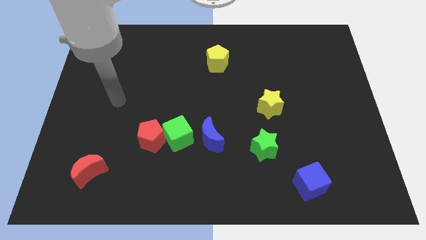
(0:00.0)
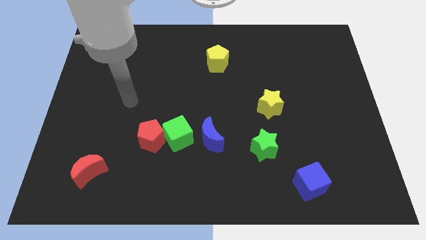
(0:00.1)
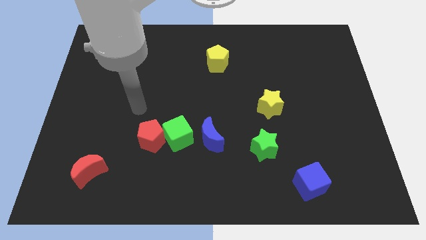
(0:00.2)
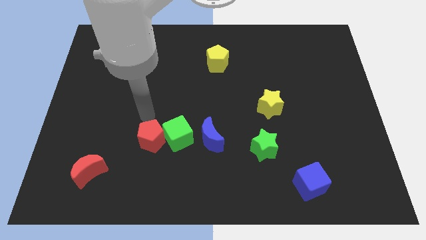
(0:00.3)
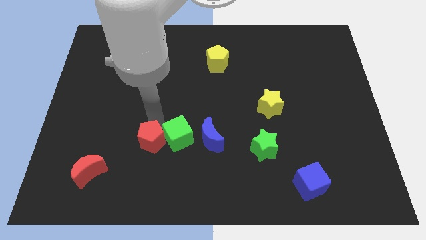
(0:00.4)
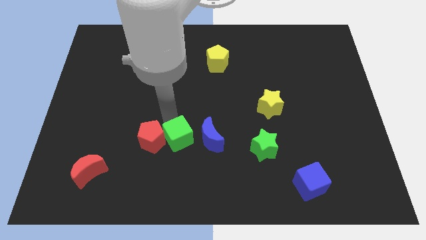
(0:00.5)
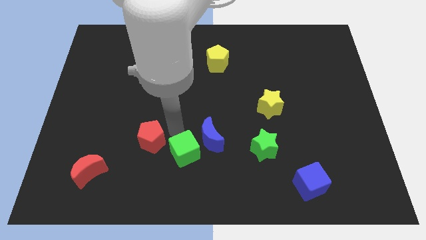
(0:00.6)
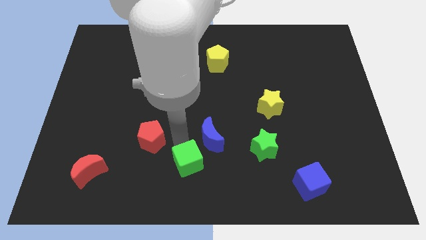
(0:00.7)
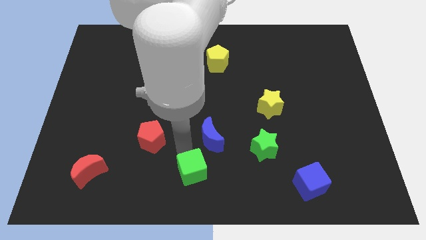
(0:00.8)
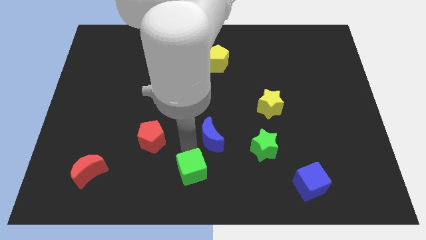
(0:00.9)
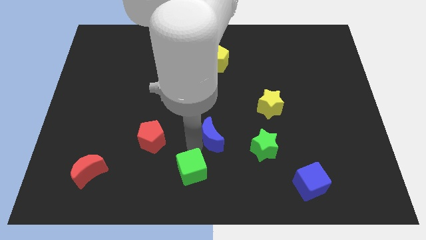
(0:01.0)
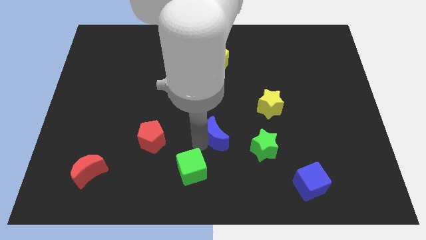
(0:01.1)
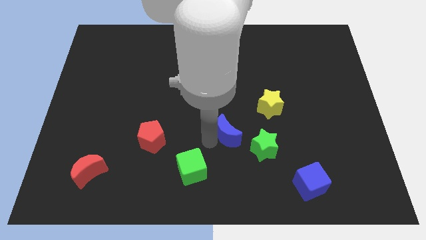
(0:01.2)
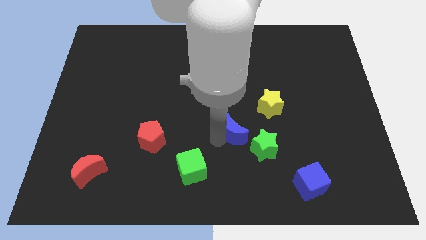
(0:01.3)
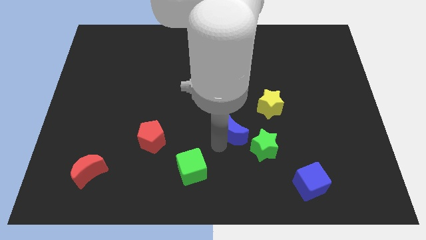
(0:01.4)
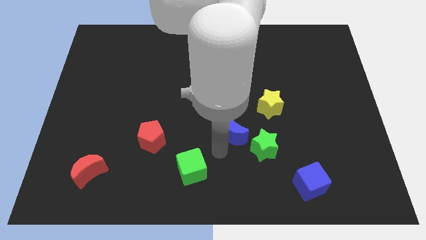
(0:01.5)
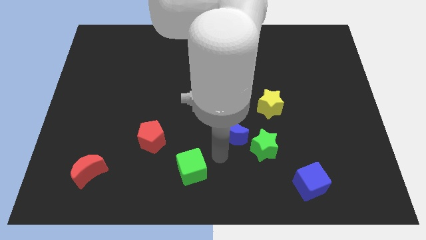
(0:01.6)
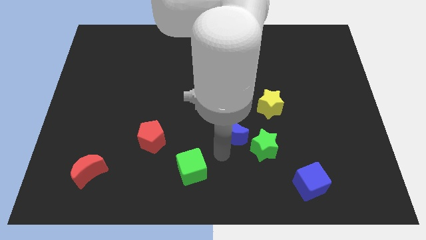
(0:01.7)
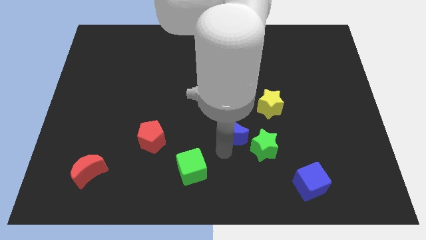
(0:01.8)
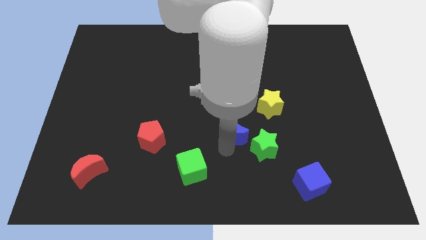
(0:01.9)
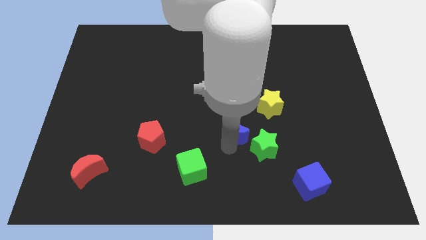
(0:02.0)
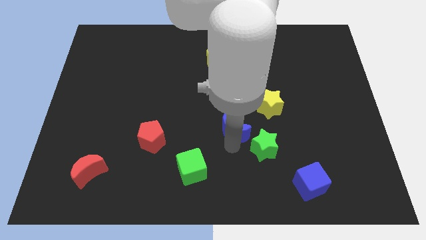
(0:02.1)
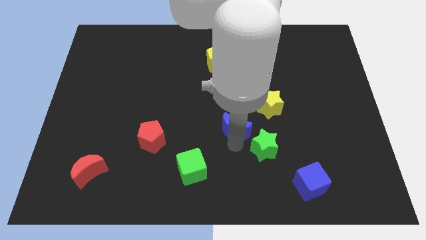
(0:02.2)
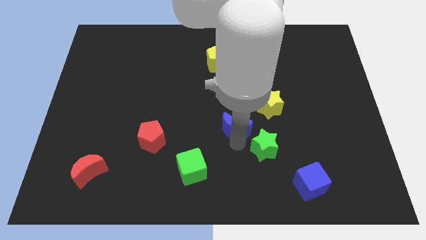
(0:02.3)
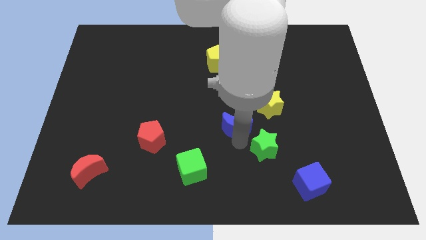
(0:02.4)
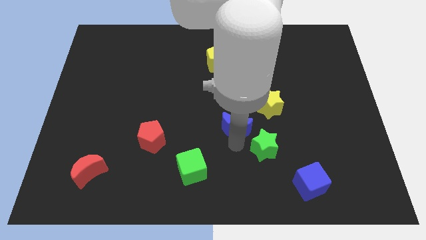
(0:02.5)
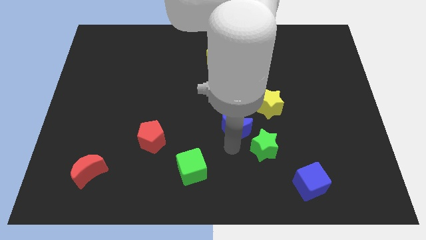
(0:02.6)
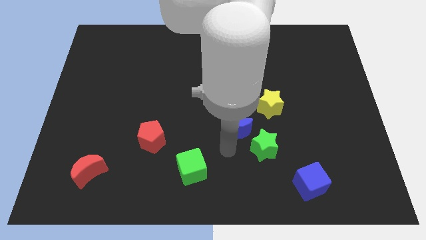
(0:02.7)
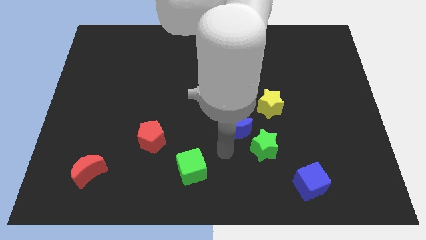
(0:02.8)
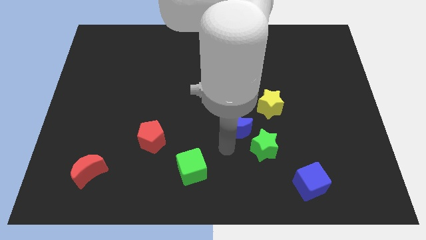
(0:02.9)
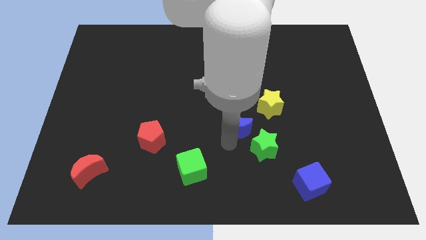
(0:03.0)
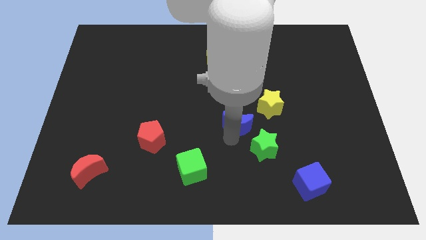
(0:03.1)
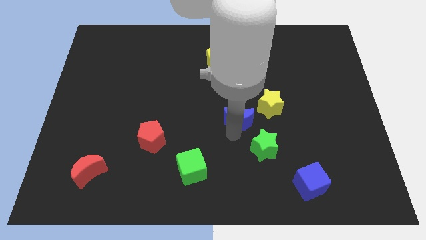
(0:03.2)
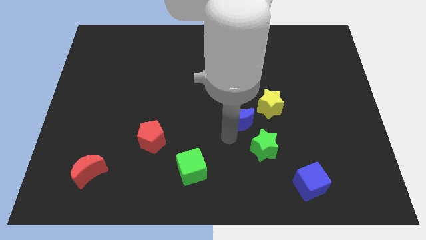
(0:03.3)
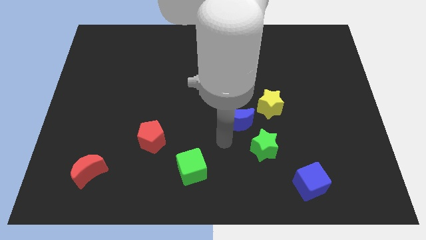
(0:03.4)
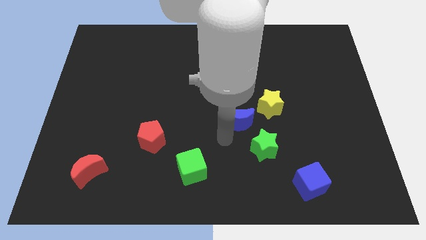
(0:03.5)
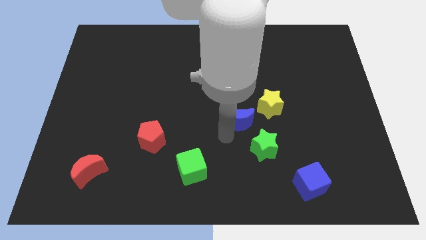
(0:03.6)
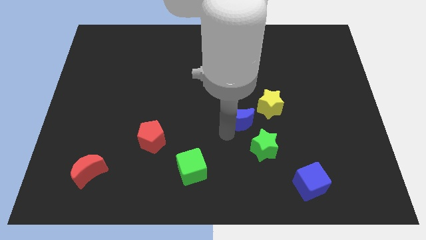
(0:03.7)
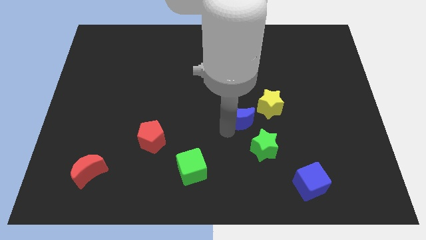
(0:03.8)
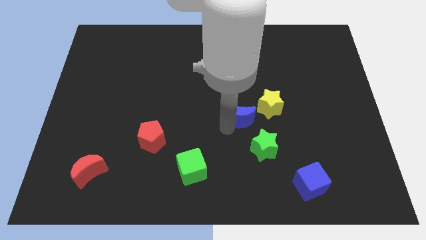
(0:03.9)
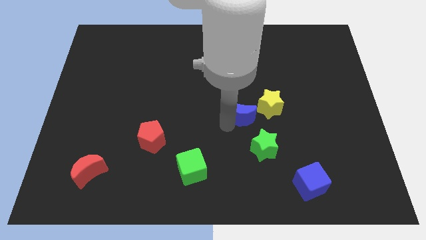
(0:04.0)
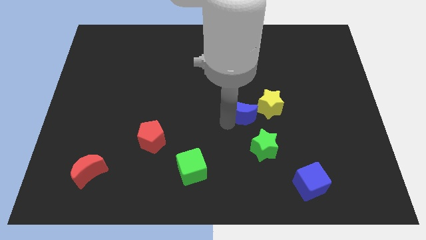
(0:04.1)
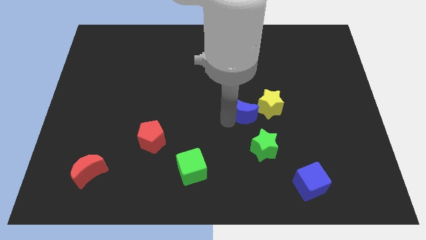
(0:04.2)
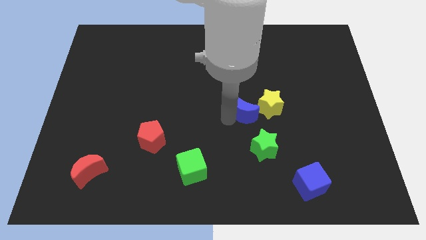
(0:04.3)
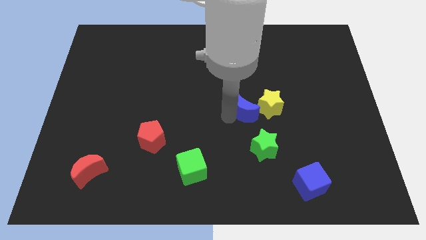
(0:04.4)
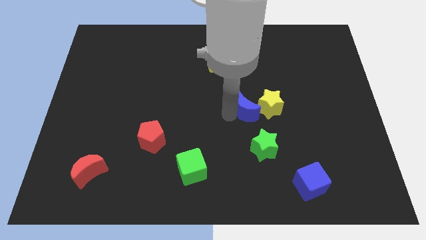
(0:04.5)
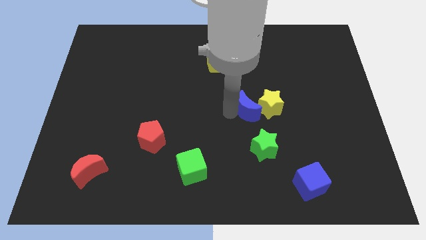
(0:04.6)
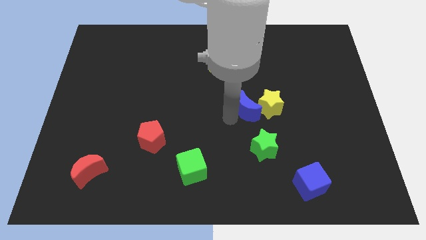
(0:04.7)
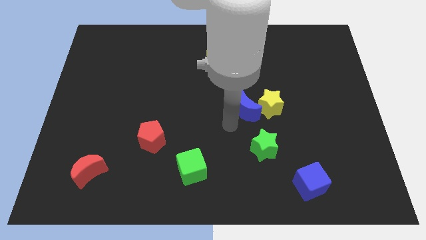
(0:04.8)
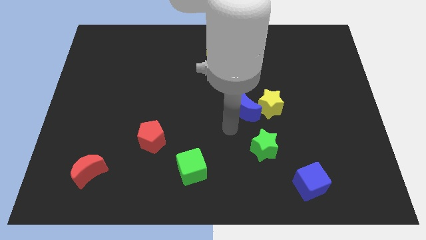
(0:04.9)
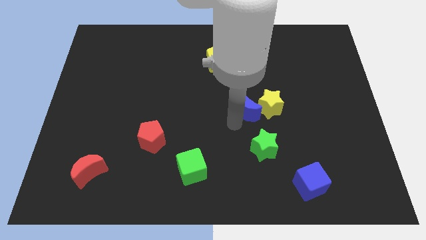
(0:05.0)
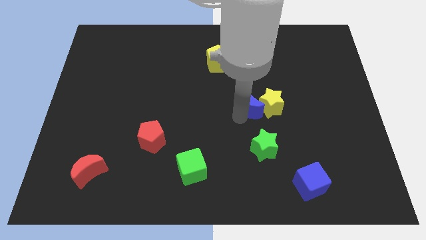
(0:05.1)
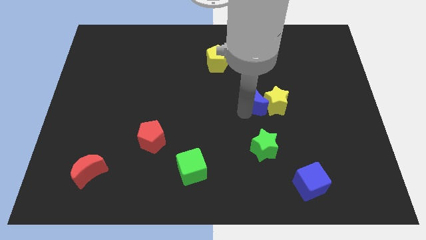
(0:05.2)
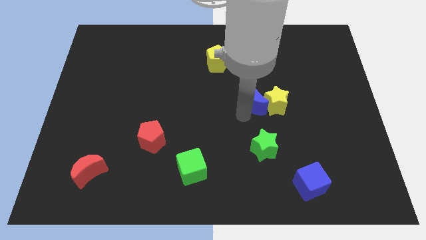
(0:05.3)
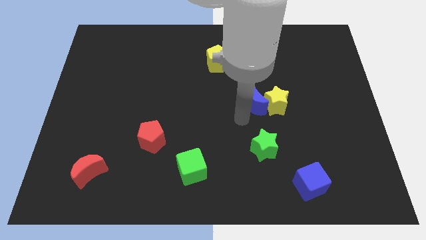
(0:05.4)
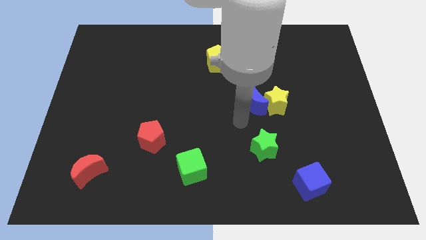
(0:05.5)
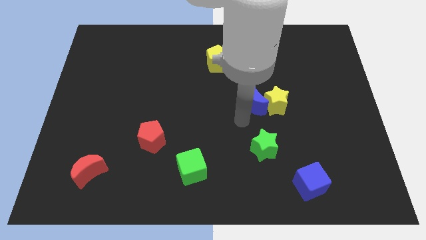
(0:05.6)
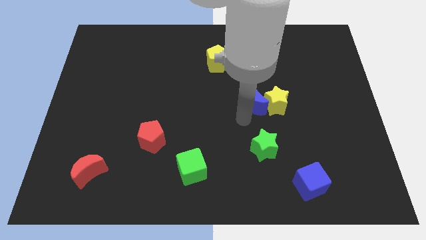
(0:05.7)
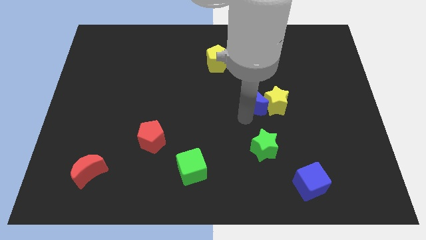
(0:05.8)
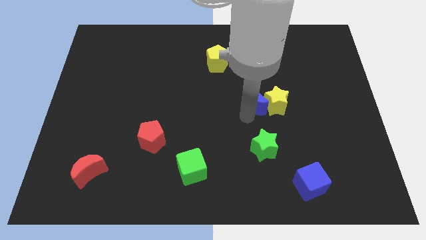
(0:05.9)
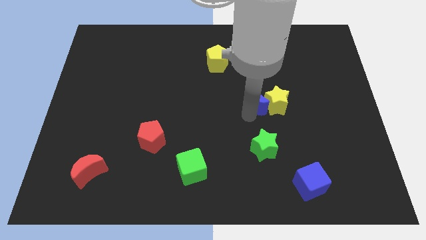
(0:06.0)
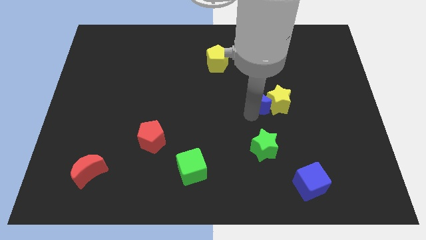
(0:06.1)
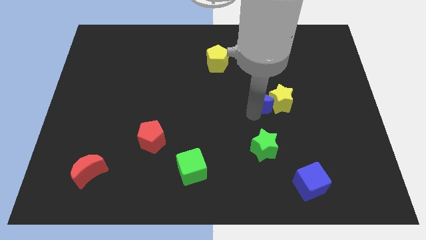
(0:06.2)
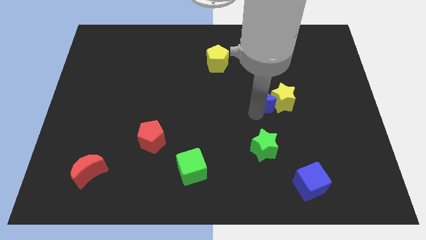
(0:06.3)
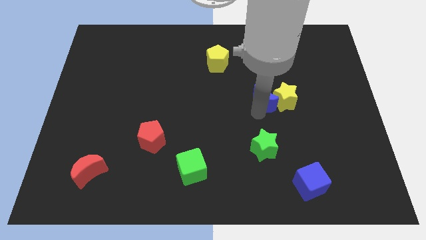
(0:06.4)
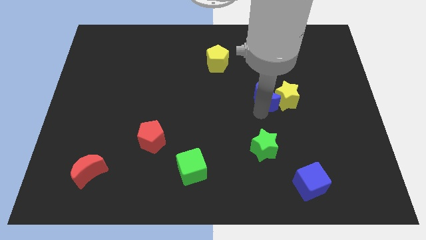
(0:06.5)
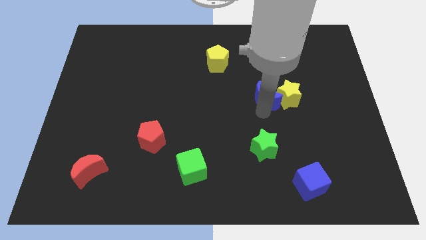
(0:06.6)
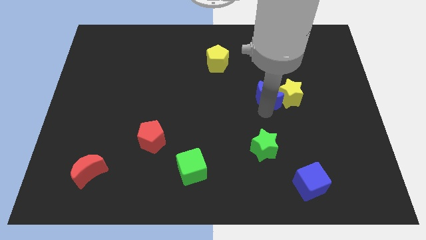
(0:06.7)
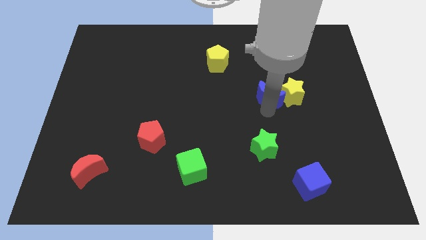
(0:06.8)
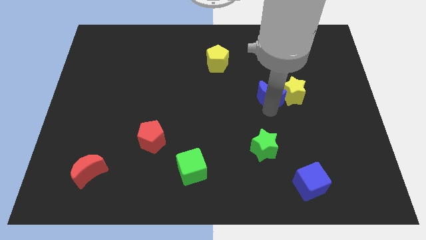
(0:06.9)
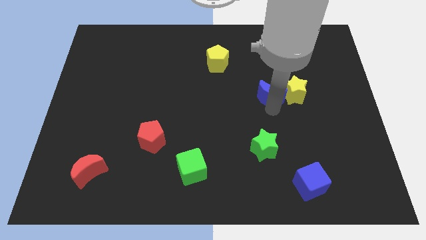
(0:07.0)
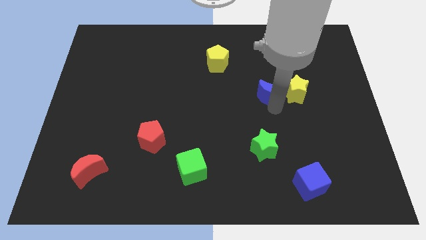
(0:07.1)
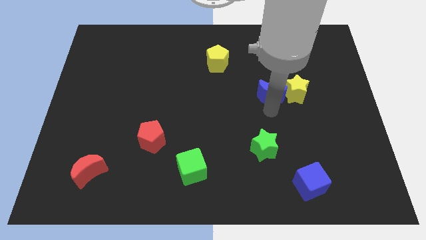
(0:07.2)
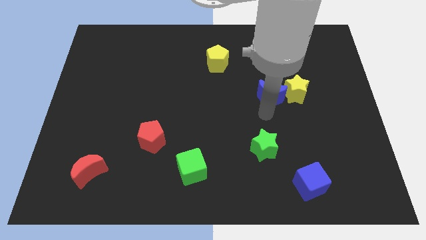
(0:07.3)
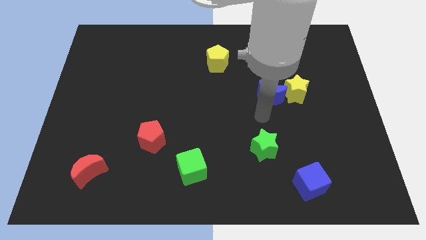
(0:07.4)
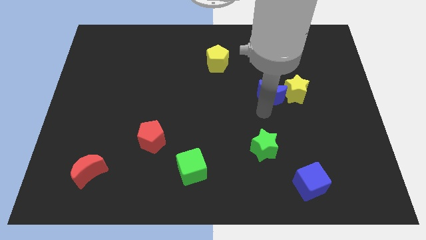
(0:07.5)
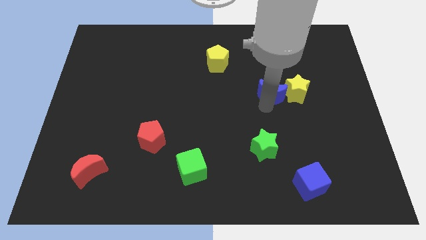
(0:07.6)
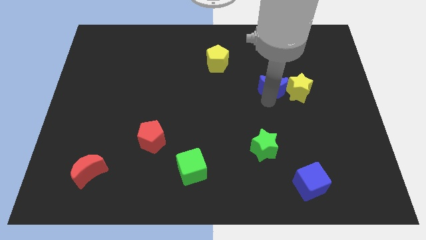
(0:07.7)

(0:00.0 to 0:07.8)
move the blue moon up and then to the right

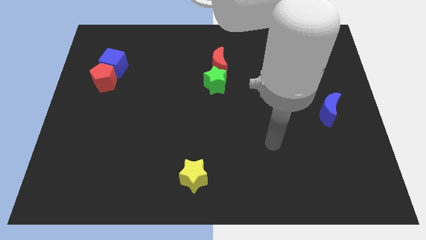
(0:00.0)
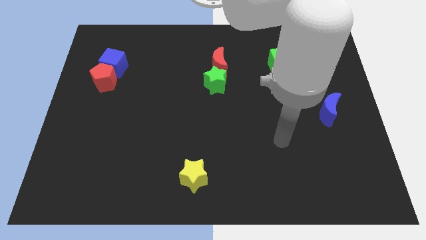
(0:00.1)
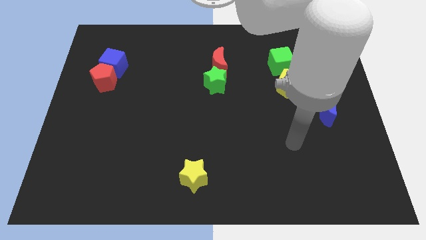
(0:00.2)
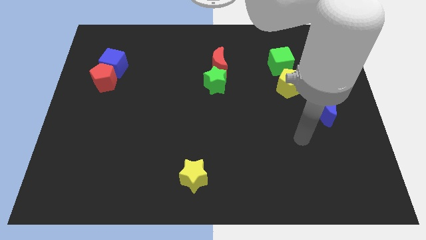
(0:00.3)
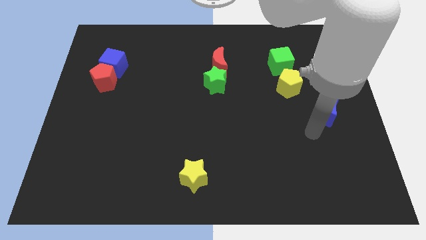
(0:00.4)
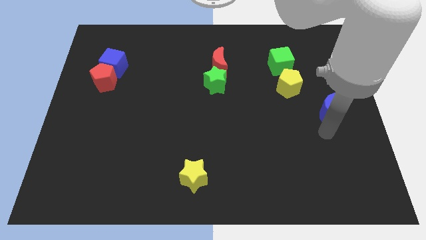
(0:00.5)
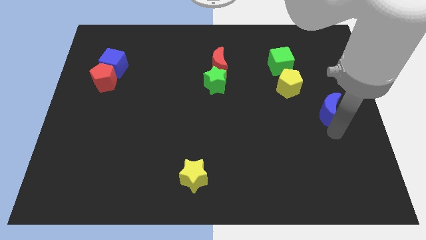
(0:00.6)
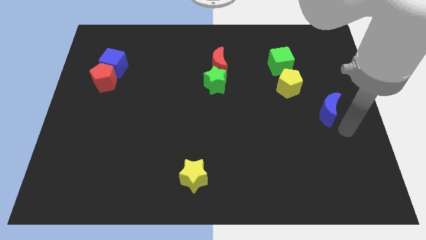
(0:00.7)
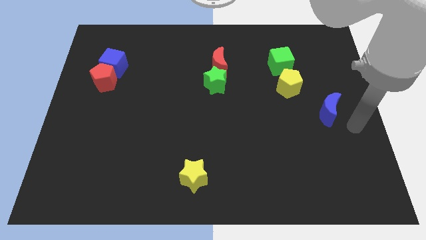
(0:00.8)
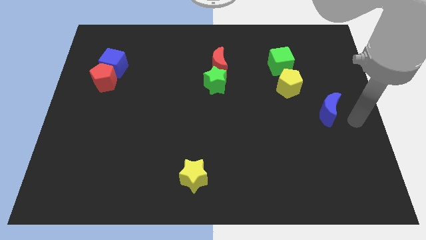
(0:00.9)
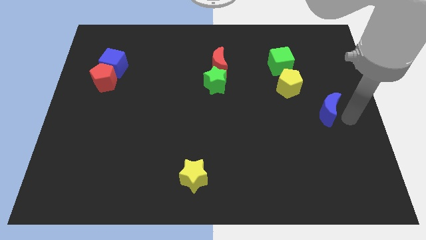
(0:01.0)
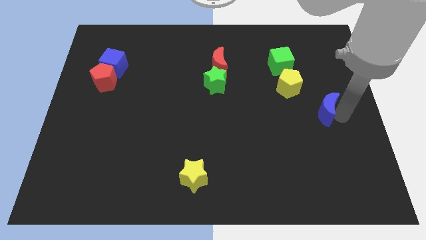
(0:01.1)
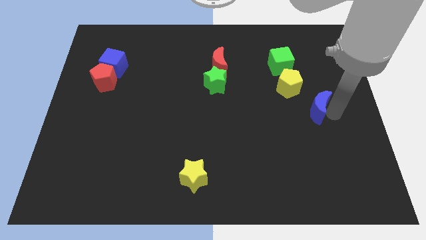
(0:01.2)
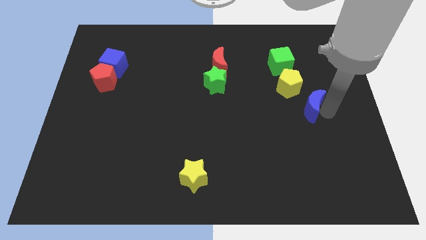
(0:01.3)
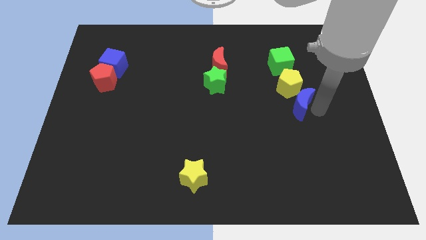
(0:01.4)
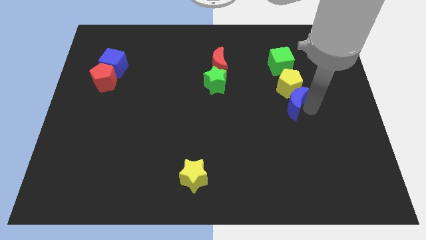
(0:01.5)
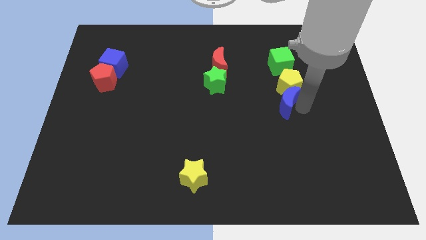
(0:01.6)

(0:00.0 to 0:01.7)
slide the blue moon a little diagonally up and left
